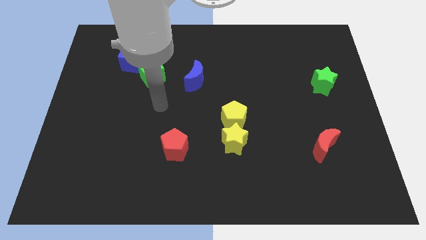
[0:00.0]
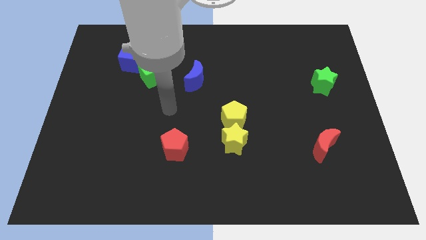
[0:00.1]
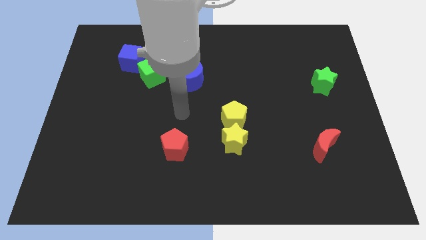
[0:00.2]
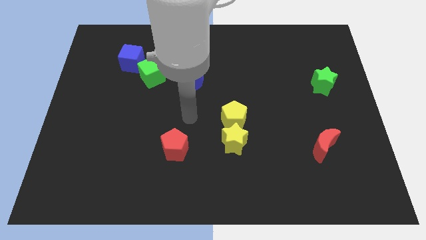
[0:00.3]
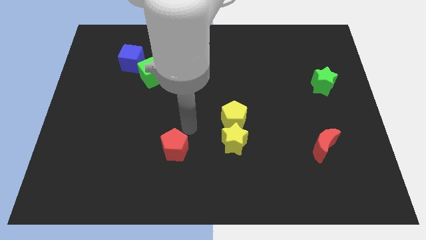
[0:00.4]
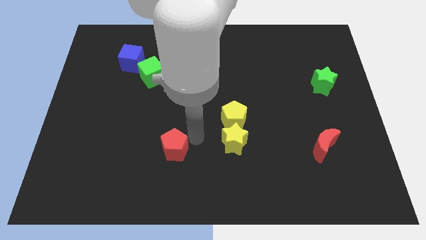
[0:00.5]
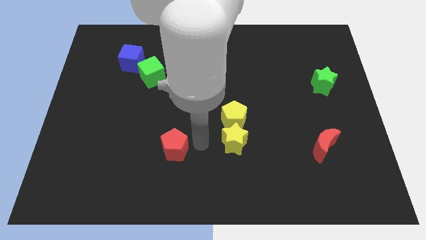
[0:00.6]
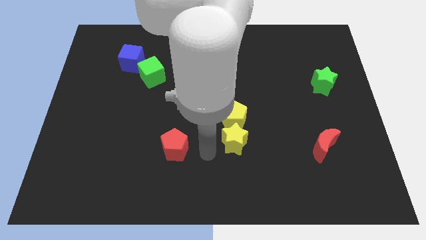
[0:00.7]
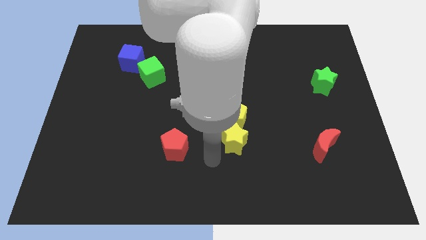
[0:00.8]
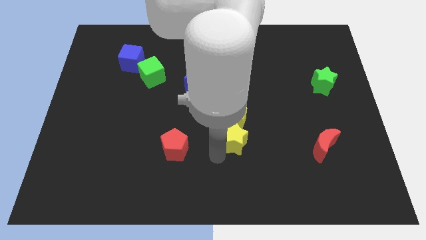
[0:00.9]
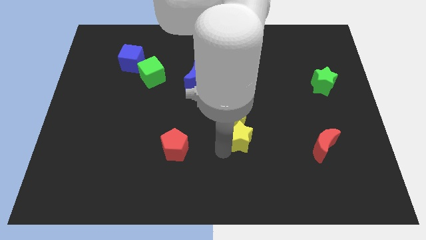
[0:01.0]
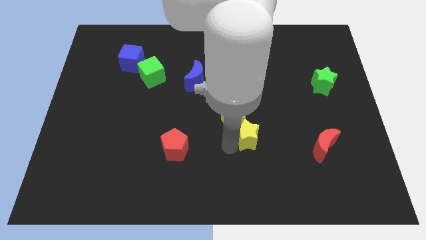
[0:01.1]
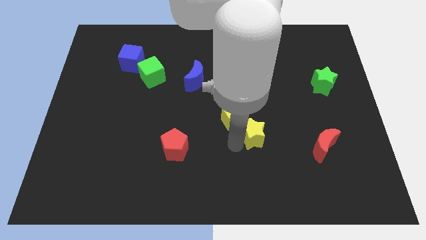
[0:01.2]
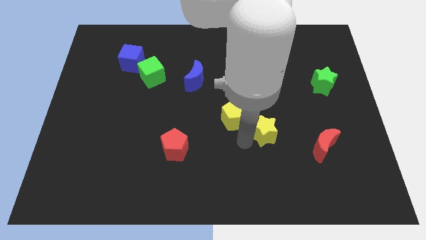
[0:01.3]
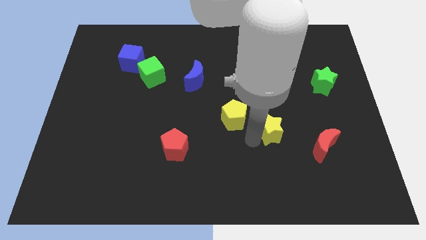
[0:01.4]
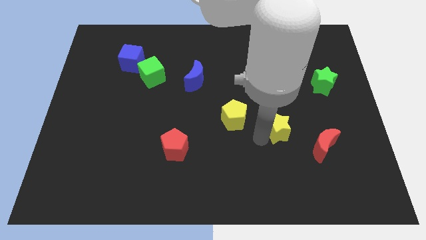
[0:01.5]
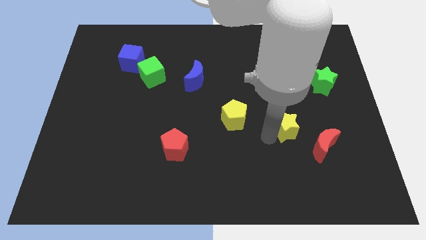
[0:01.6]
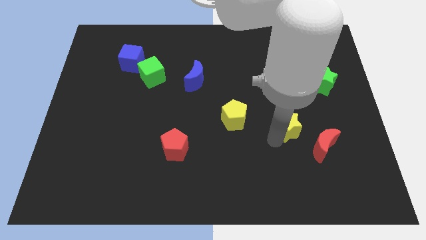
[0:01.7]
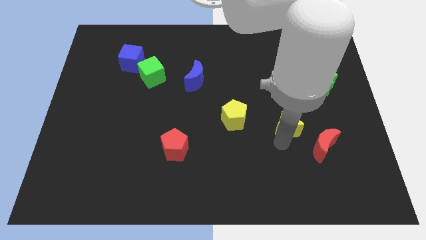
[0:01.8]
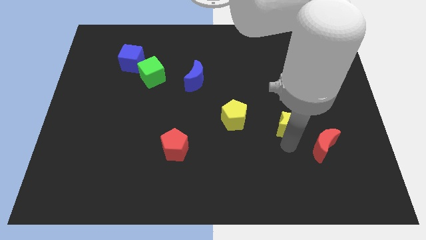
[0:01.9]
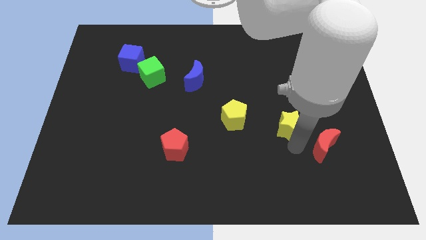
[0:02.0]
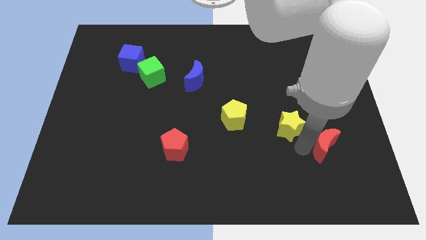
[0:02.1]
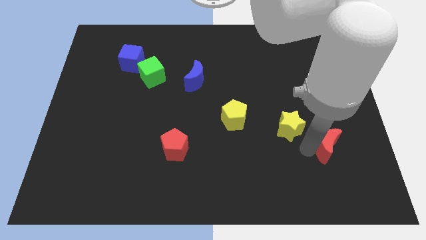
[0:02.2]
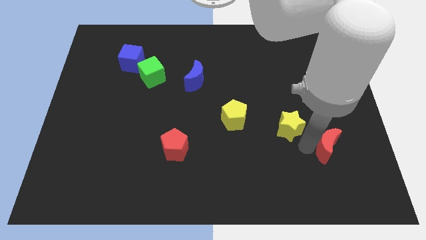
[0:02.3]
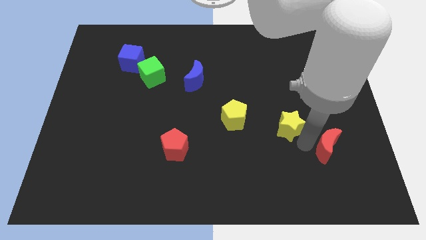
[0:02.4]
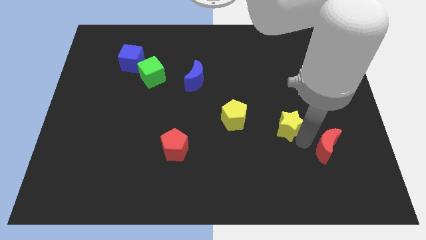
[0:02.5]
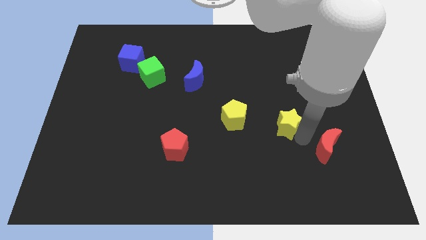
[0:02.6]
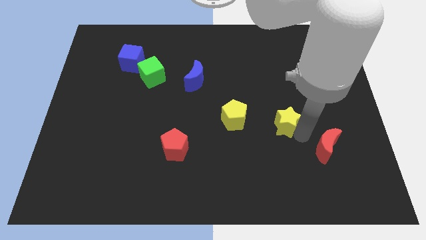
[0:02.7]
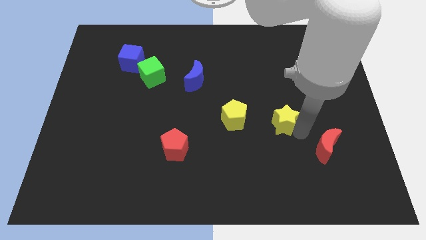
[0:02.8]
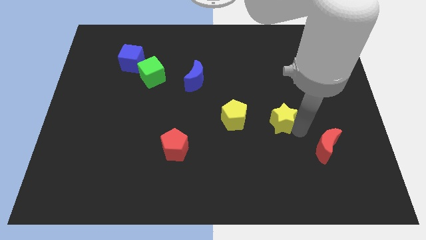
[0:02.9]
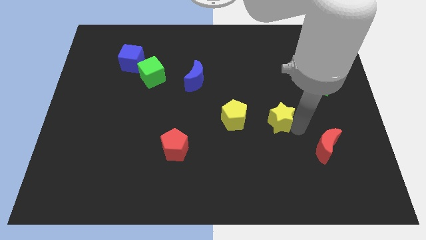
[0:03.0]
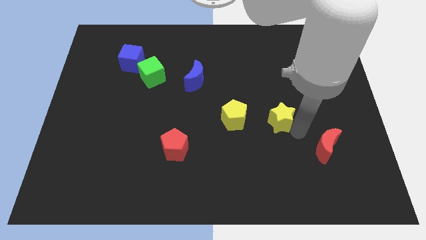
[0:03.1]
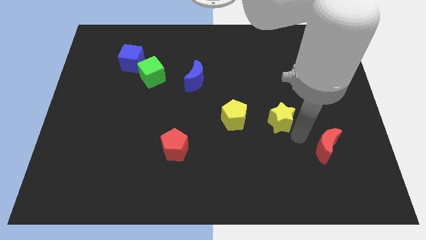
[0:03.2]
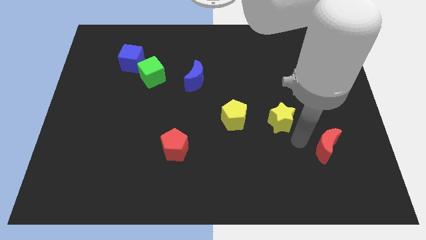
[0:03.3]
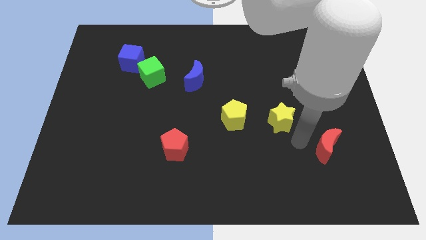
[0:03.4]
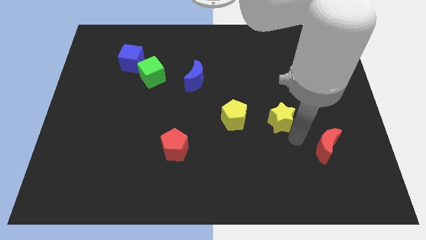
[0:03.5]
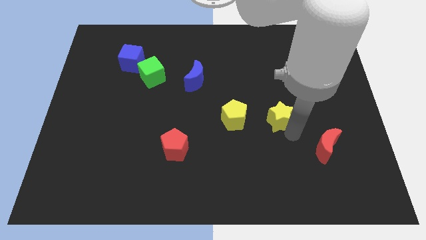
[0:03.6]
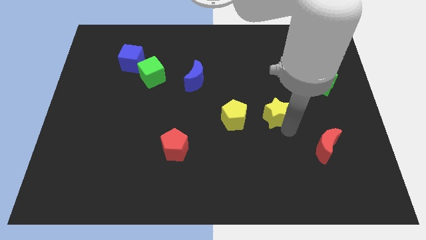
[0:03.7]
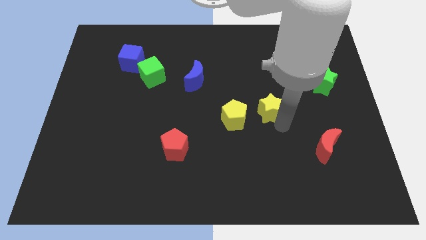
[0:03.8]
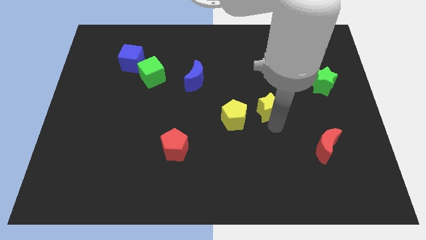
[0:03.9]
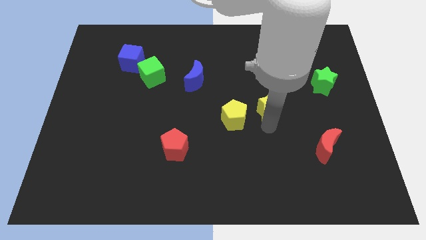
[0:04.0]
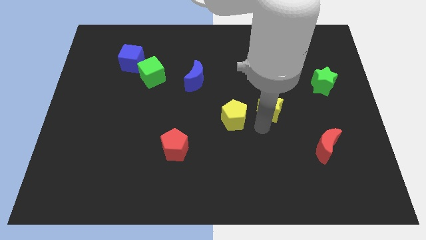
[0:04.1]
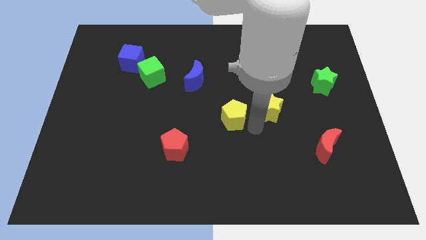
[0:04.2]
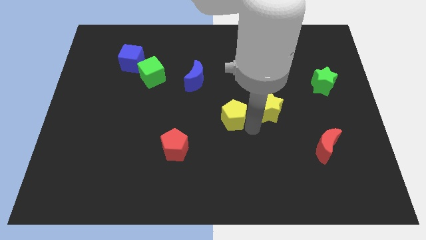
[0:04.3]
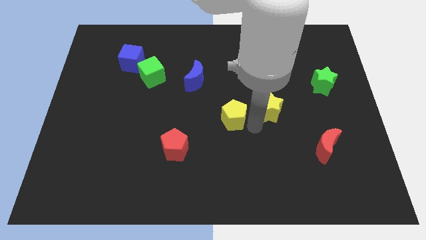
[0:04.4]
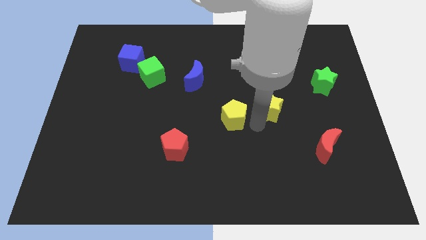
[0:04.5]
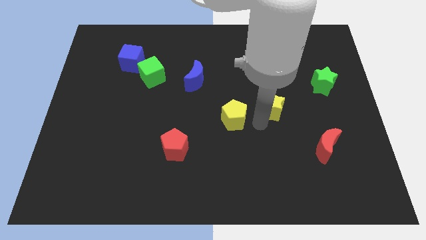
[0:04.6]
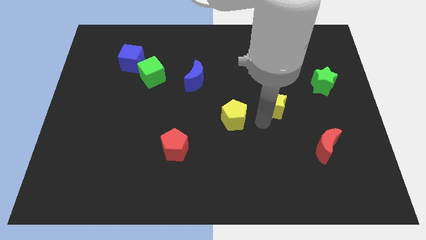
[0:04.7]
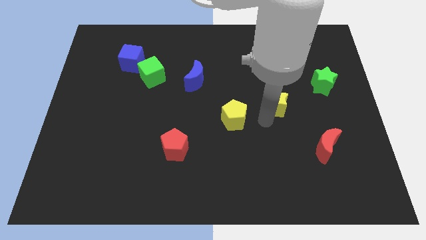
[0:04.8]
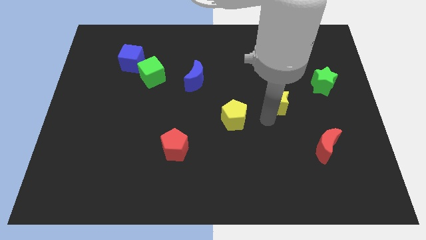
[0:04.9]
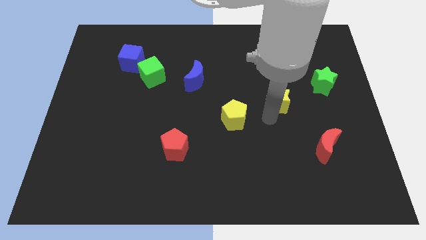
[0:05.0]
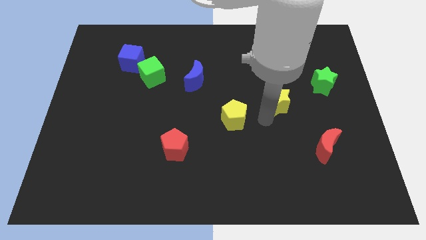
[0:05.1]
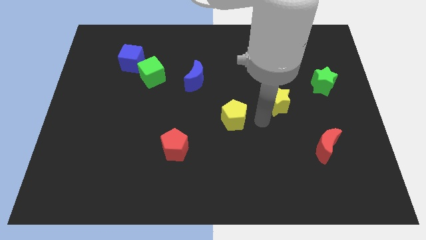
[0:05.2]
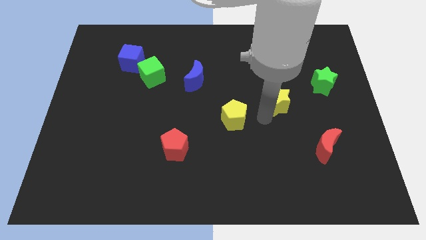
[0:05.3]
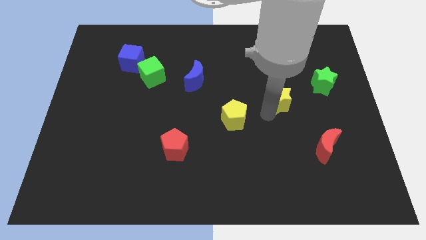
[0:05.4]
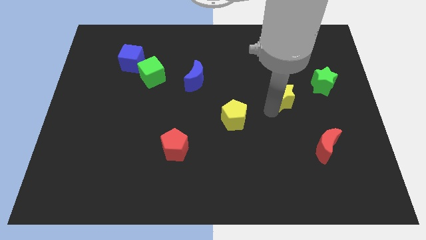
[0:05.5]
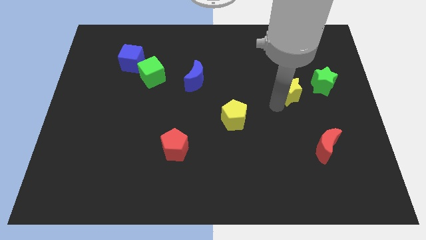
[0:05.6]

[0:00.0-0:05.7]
push the yellow star diagonally up and right

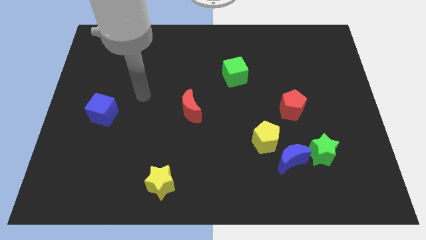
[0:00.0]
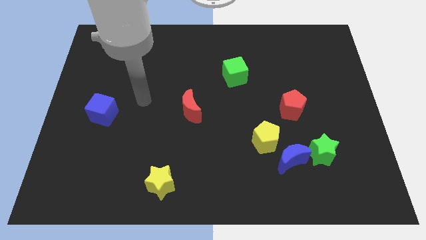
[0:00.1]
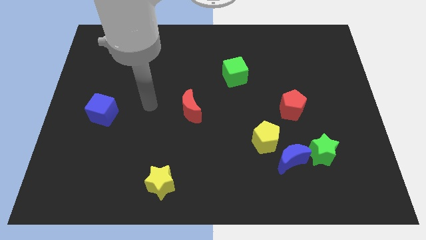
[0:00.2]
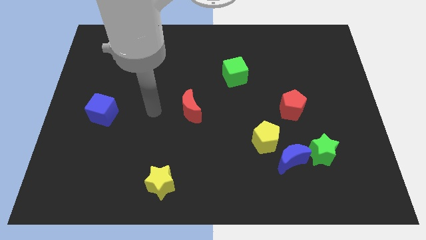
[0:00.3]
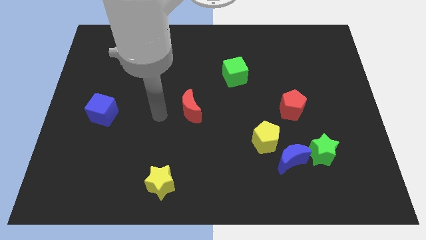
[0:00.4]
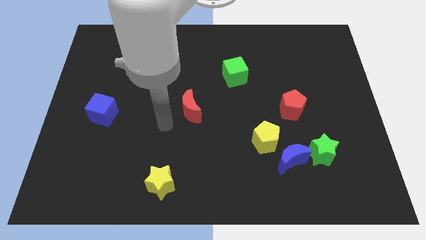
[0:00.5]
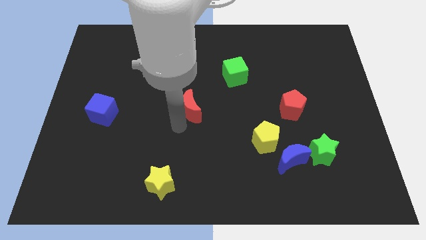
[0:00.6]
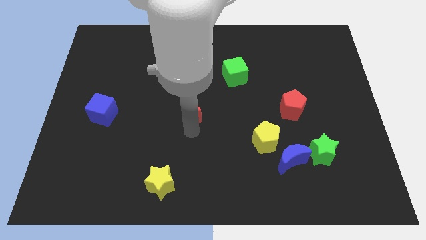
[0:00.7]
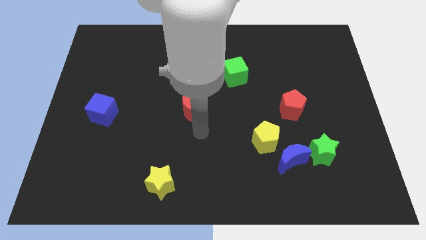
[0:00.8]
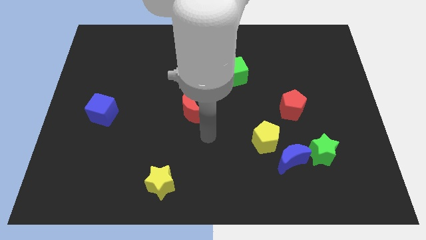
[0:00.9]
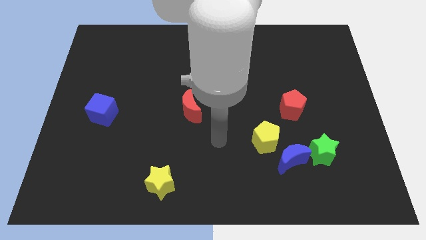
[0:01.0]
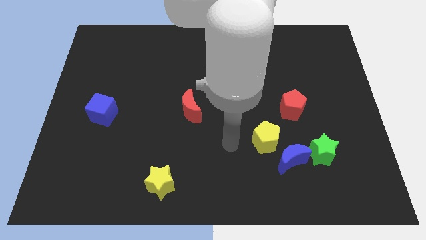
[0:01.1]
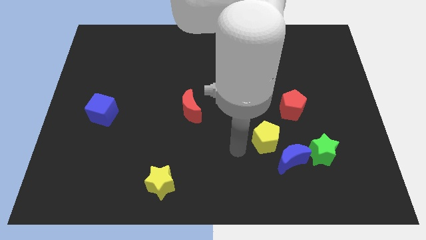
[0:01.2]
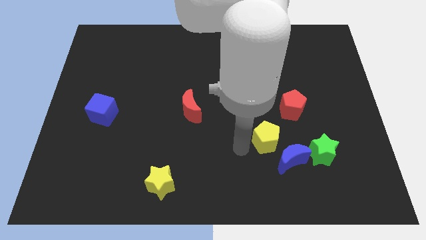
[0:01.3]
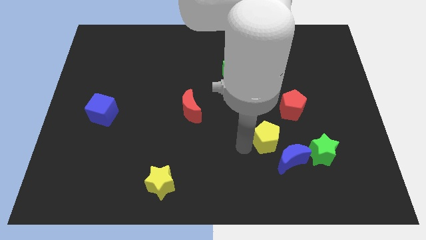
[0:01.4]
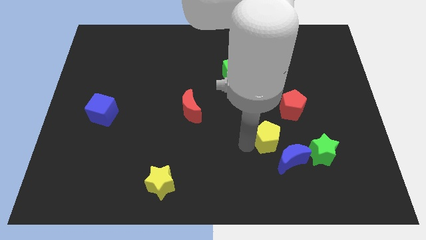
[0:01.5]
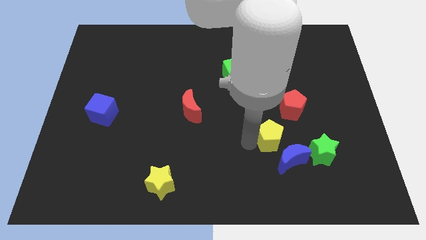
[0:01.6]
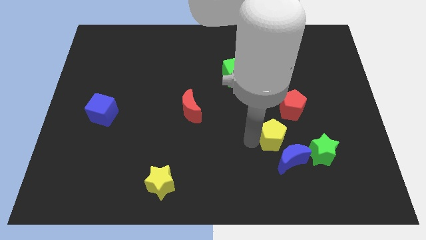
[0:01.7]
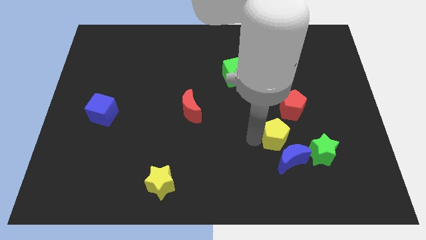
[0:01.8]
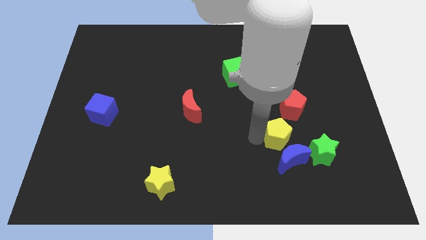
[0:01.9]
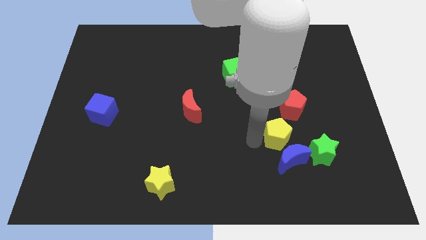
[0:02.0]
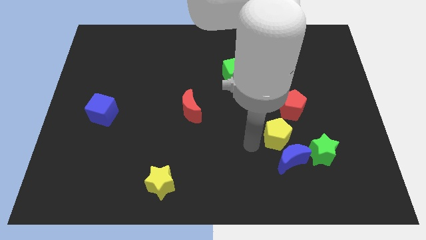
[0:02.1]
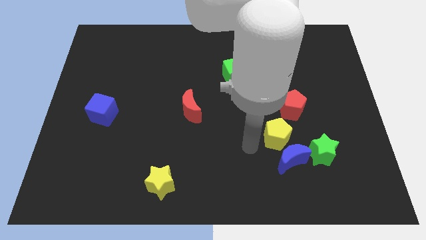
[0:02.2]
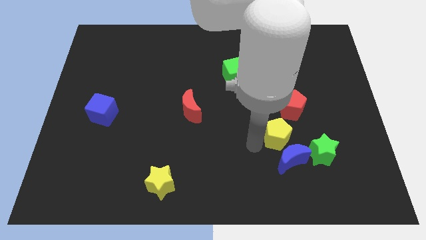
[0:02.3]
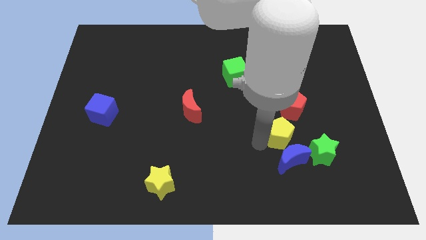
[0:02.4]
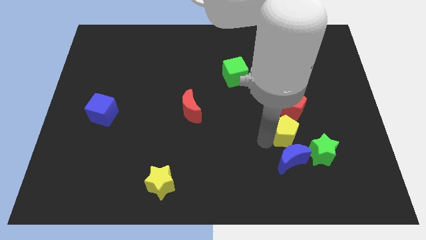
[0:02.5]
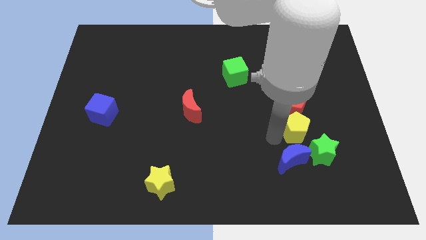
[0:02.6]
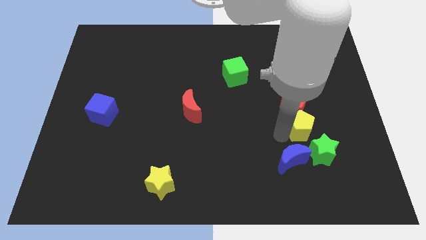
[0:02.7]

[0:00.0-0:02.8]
slide the yellow pentagon up and then right a little

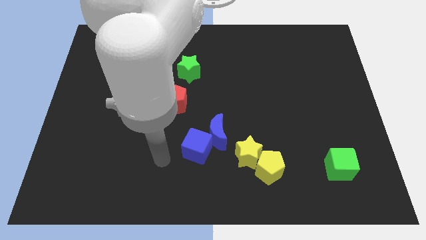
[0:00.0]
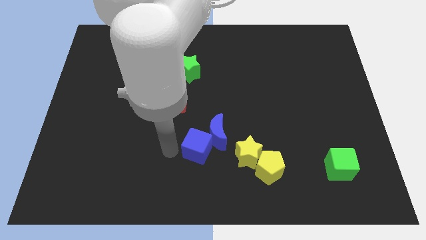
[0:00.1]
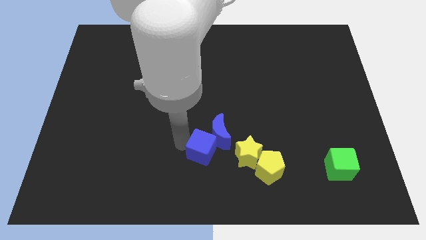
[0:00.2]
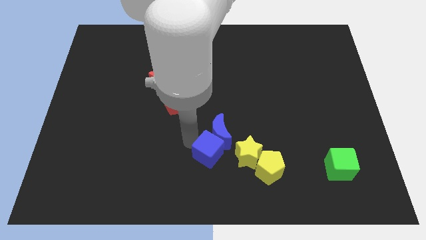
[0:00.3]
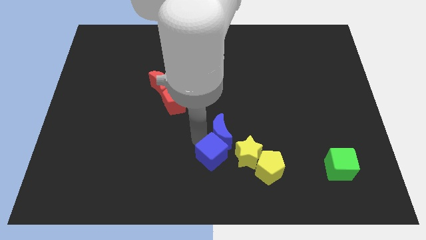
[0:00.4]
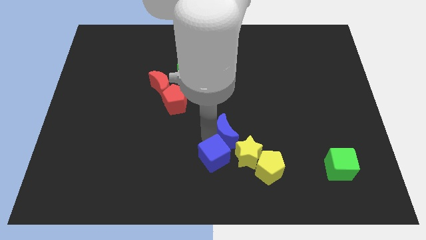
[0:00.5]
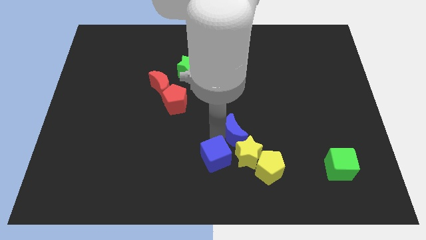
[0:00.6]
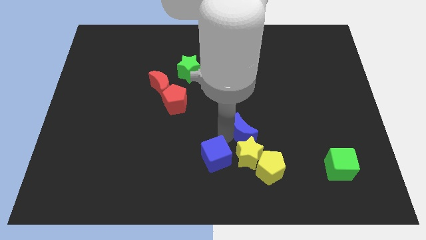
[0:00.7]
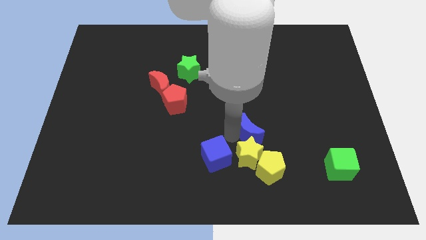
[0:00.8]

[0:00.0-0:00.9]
slightly move the blue moon right
